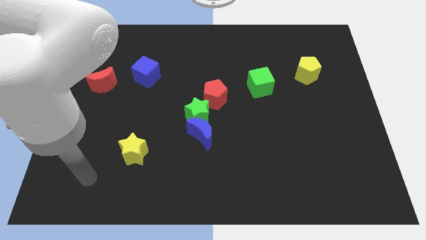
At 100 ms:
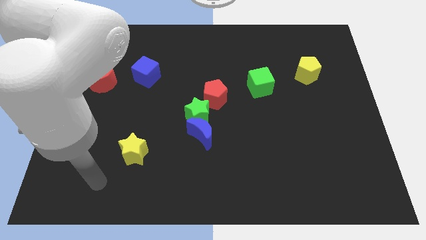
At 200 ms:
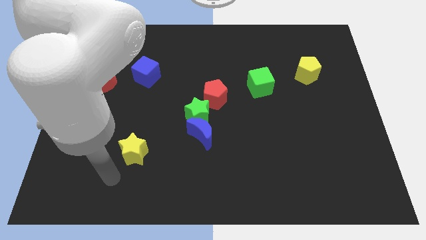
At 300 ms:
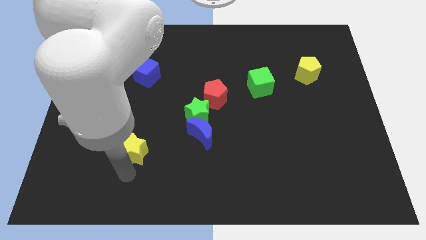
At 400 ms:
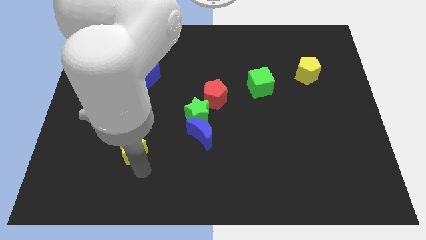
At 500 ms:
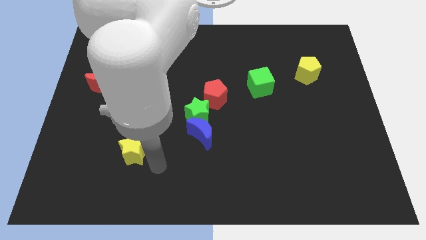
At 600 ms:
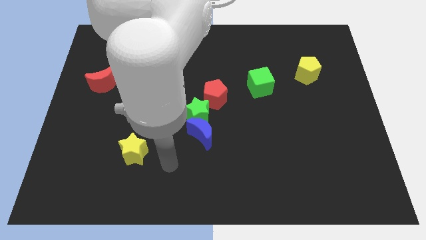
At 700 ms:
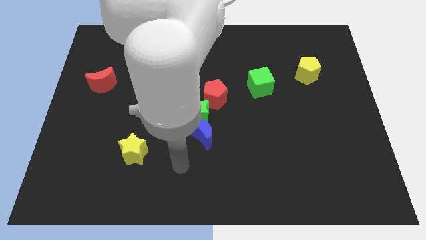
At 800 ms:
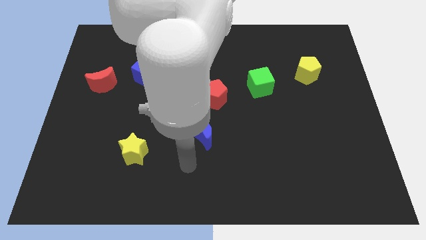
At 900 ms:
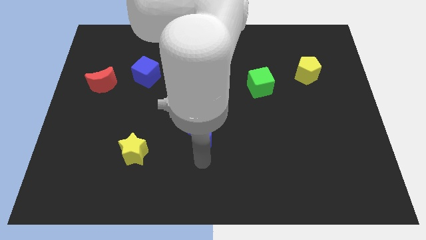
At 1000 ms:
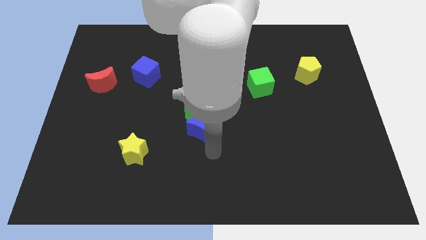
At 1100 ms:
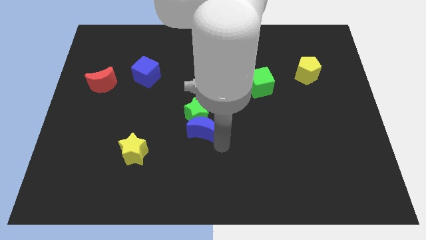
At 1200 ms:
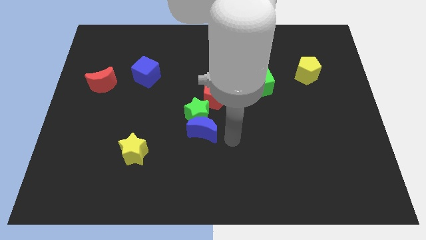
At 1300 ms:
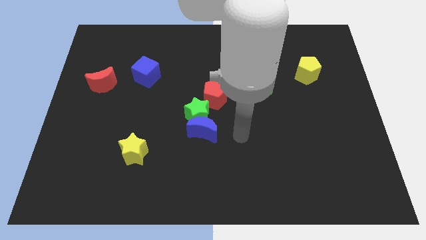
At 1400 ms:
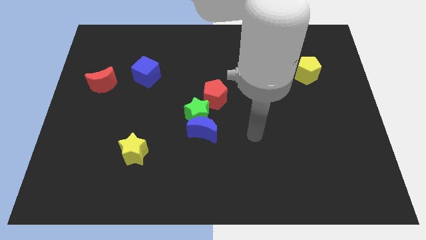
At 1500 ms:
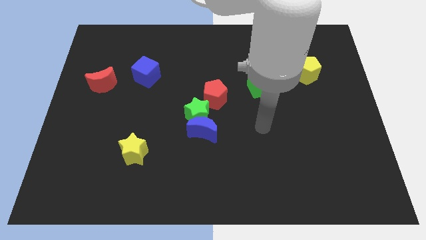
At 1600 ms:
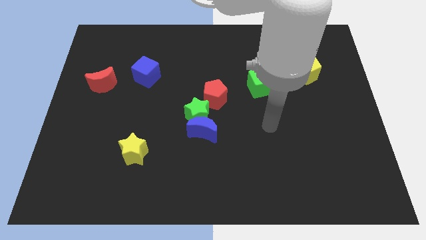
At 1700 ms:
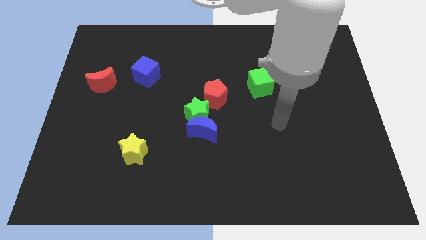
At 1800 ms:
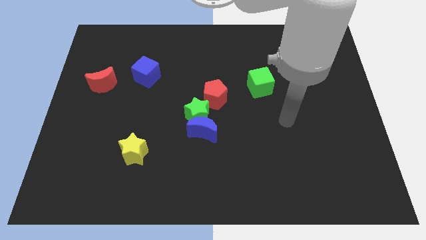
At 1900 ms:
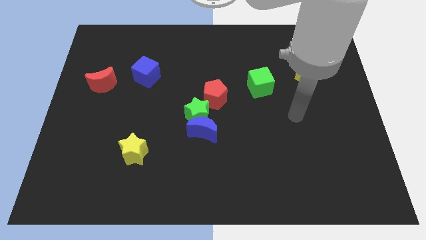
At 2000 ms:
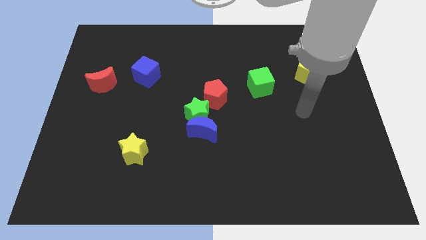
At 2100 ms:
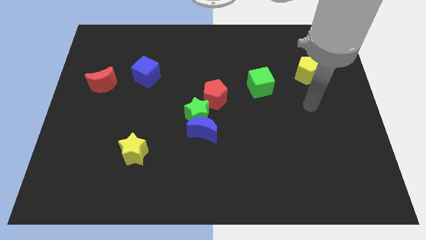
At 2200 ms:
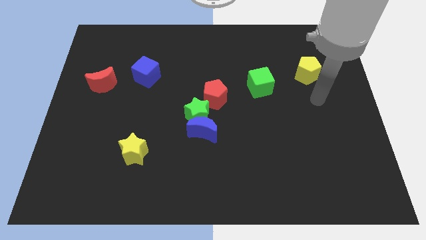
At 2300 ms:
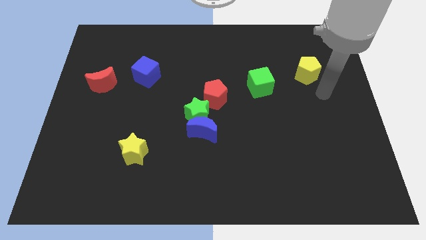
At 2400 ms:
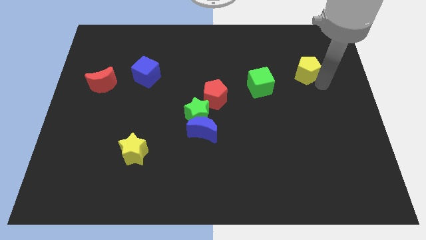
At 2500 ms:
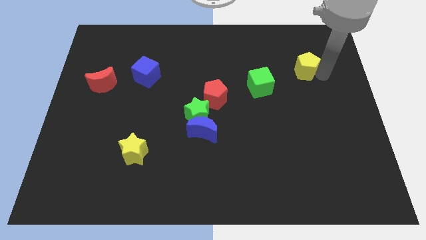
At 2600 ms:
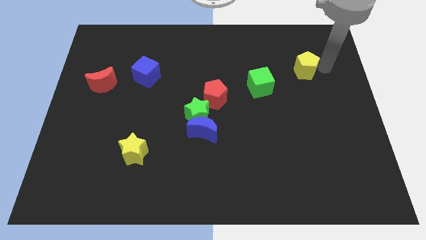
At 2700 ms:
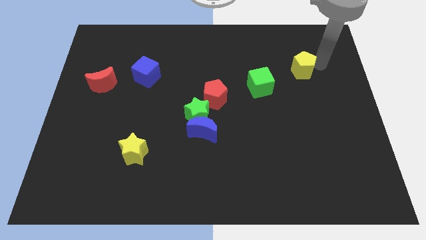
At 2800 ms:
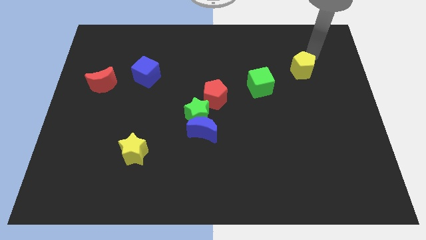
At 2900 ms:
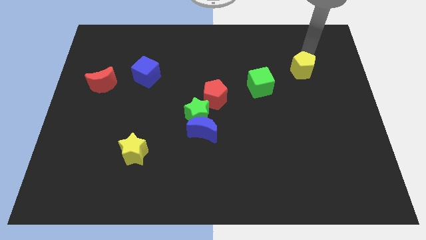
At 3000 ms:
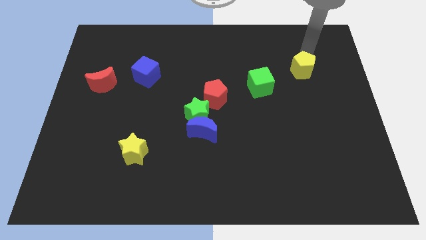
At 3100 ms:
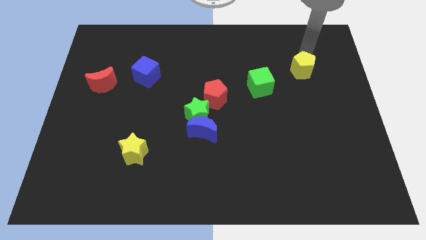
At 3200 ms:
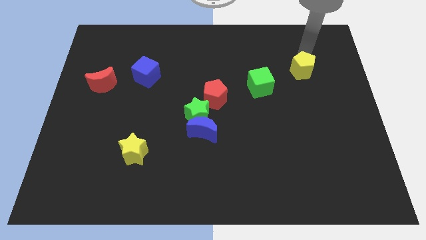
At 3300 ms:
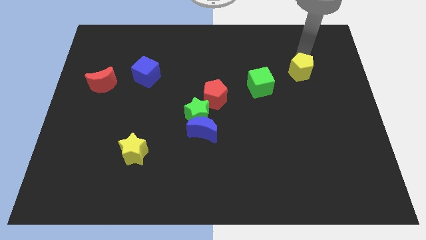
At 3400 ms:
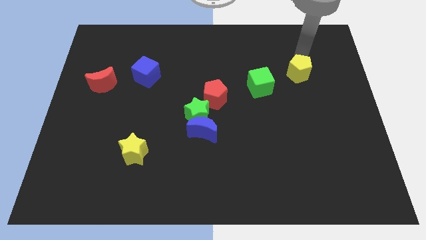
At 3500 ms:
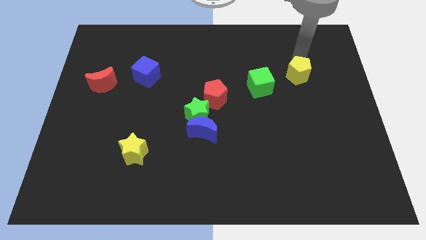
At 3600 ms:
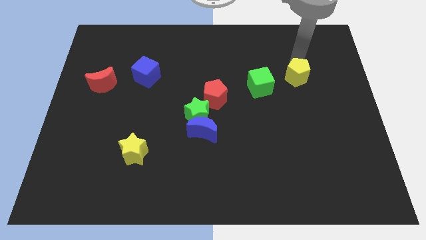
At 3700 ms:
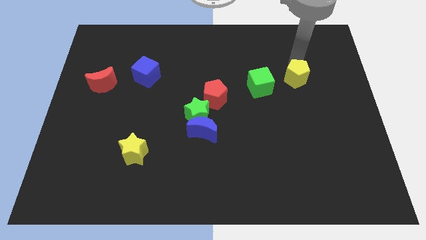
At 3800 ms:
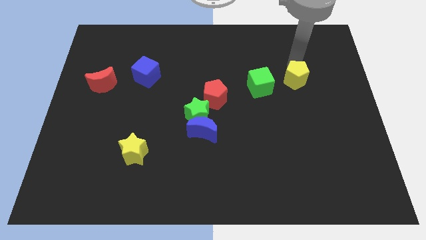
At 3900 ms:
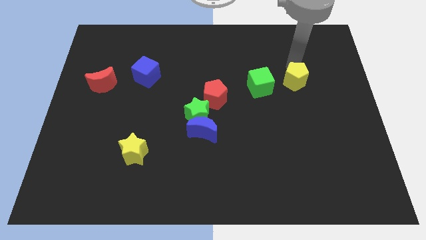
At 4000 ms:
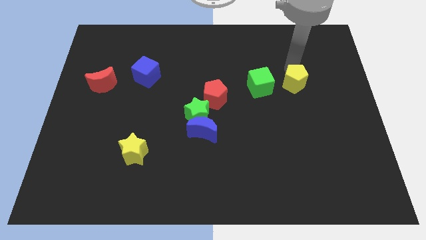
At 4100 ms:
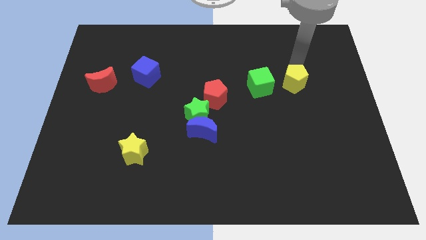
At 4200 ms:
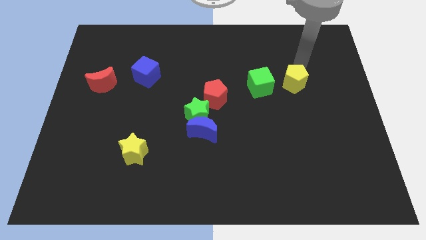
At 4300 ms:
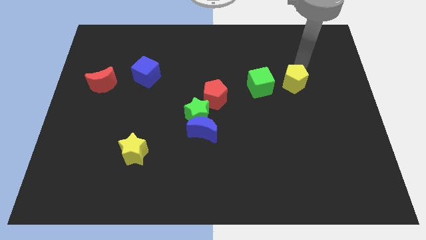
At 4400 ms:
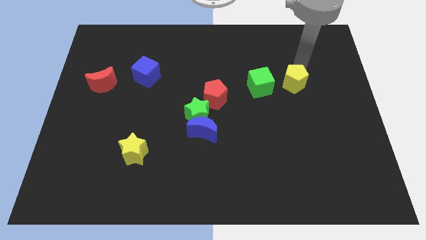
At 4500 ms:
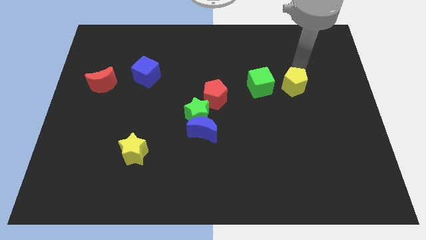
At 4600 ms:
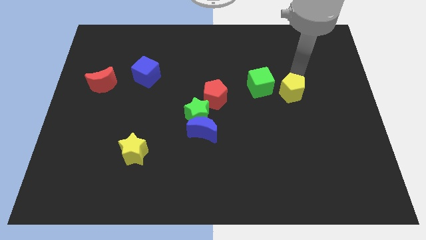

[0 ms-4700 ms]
push the yellow pentagon to the bottom right of the green cube

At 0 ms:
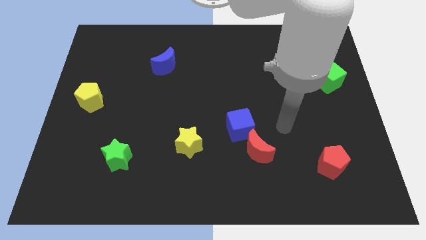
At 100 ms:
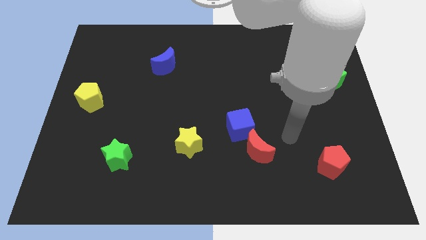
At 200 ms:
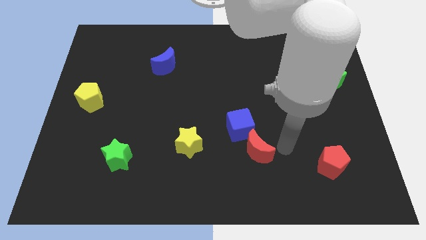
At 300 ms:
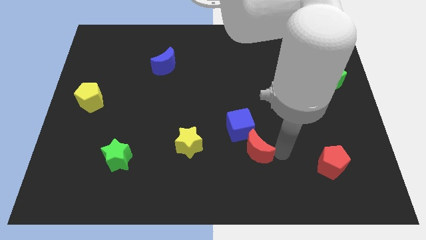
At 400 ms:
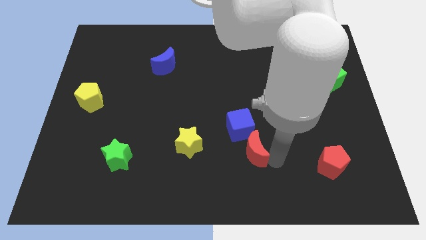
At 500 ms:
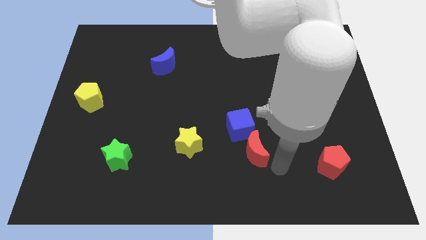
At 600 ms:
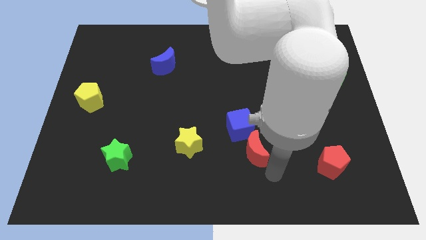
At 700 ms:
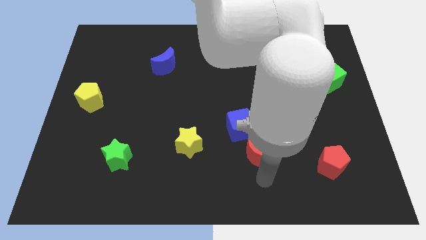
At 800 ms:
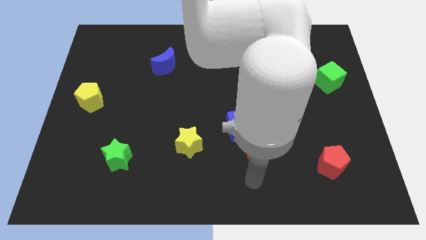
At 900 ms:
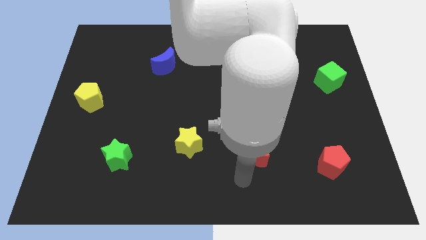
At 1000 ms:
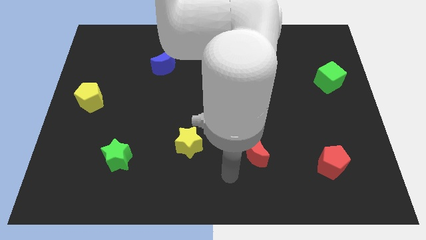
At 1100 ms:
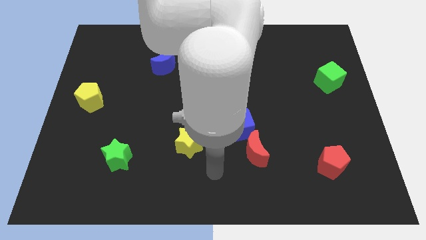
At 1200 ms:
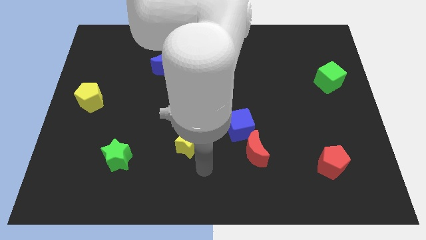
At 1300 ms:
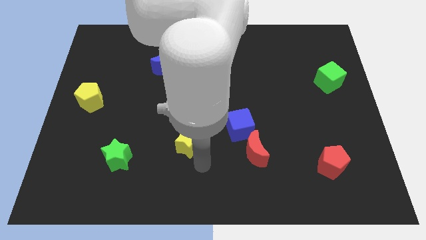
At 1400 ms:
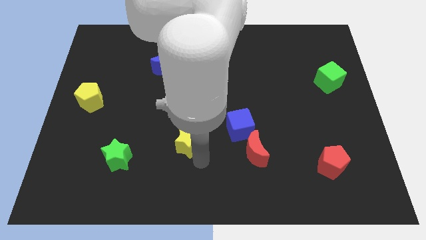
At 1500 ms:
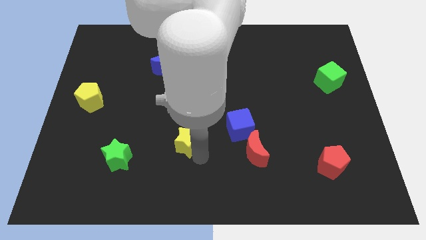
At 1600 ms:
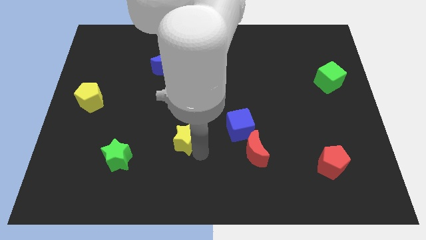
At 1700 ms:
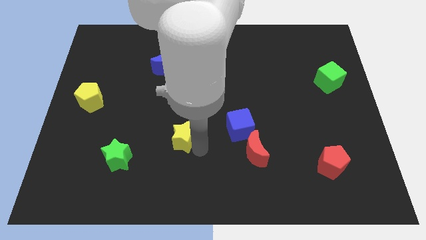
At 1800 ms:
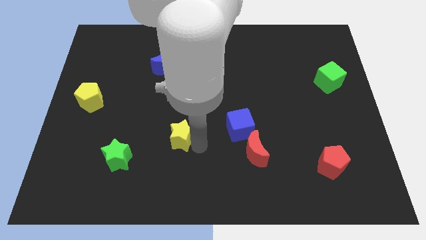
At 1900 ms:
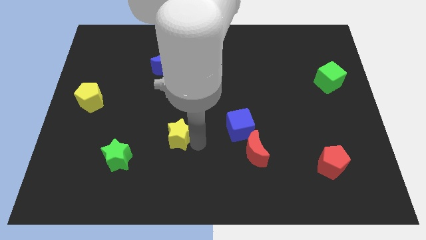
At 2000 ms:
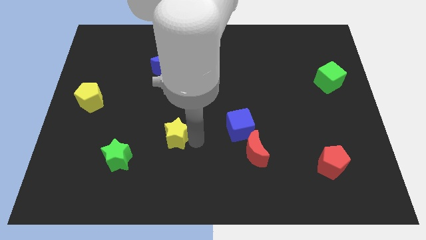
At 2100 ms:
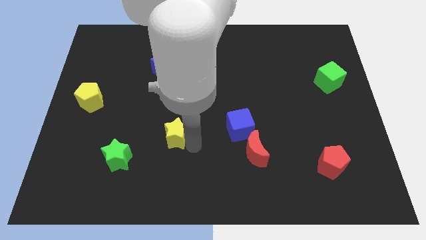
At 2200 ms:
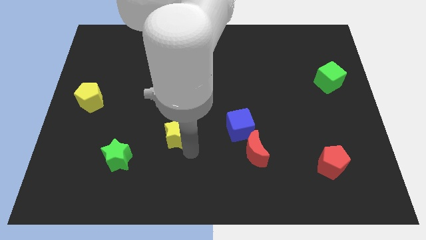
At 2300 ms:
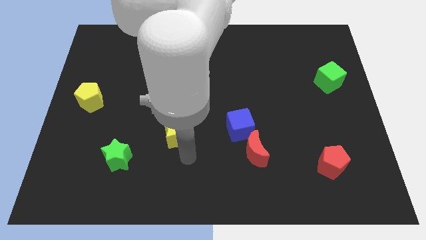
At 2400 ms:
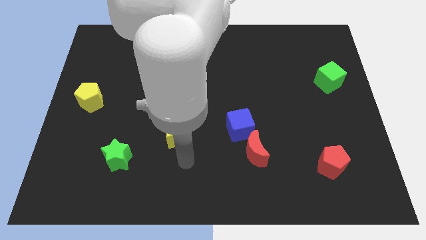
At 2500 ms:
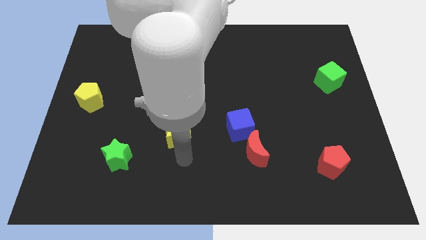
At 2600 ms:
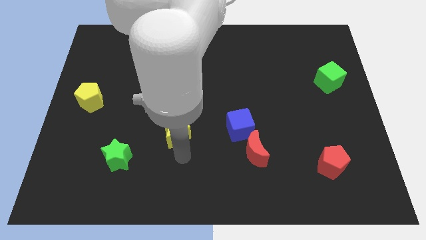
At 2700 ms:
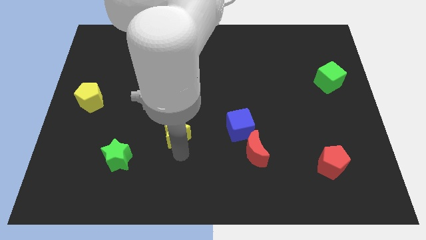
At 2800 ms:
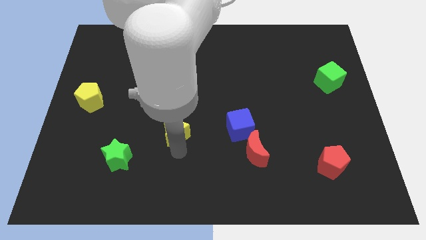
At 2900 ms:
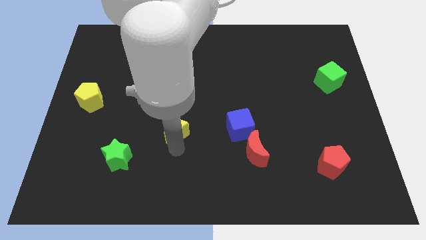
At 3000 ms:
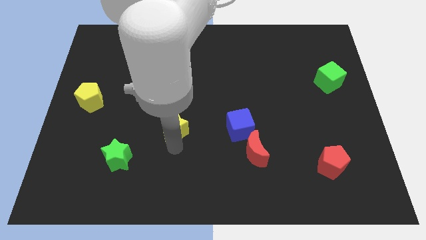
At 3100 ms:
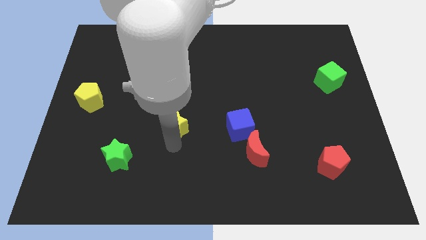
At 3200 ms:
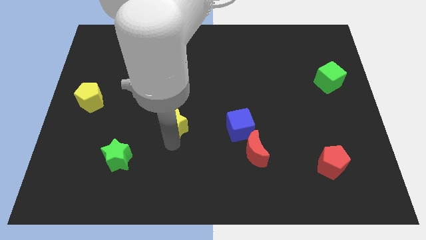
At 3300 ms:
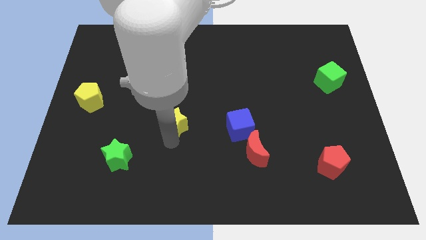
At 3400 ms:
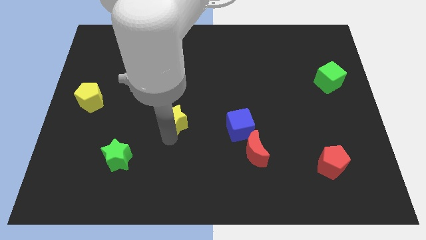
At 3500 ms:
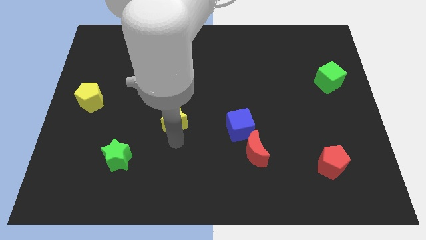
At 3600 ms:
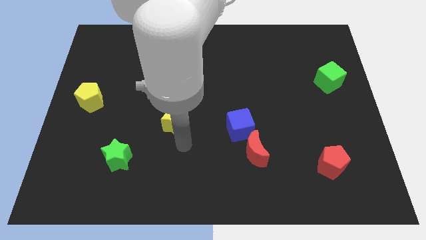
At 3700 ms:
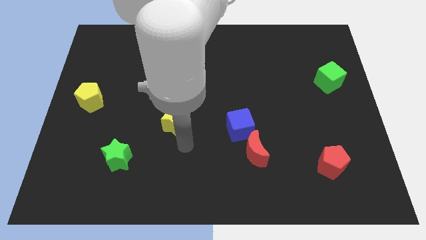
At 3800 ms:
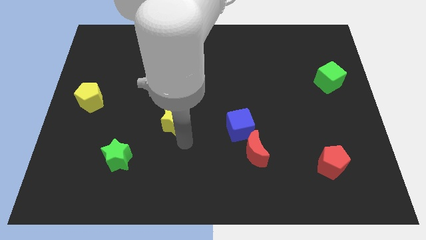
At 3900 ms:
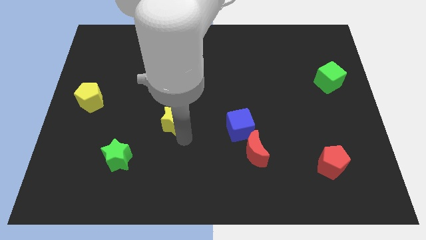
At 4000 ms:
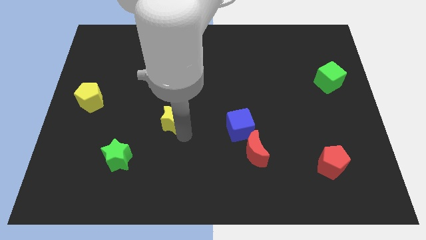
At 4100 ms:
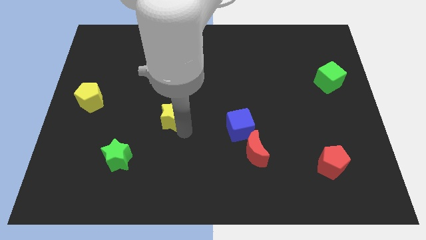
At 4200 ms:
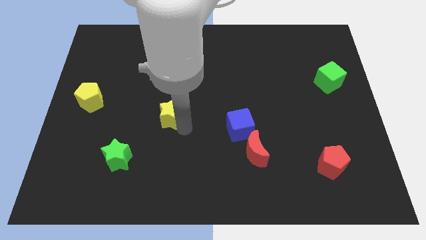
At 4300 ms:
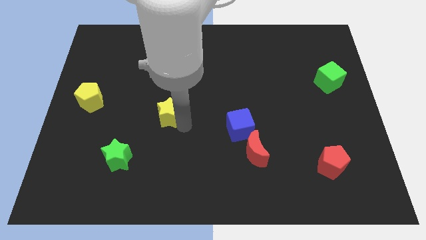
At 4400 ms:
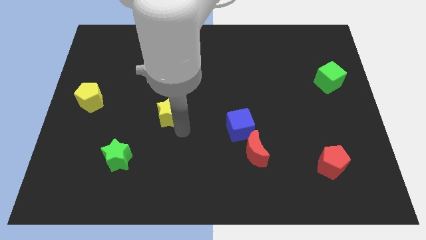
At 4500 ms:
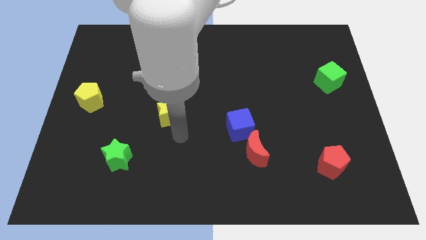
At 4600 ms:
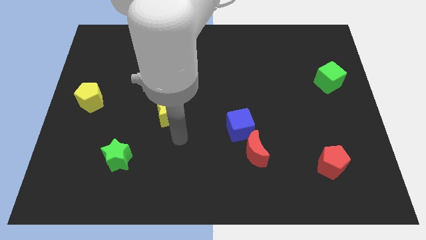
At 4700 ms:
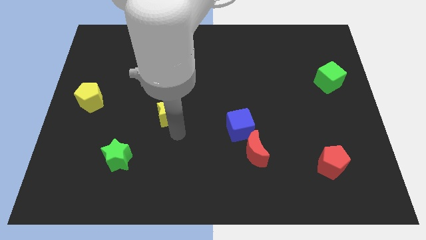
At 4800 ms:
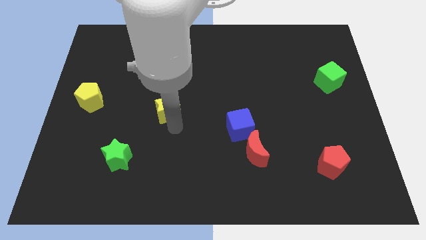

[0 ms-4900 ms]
move the yellow star to the bottom of the blue moon
